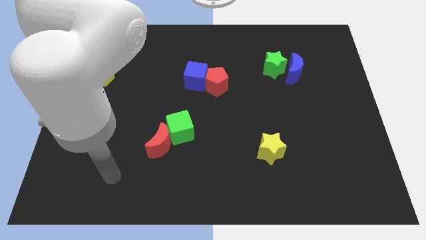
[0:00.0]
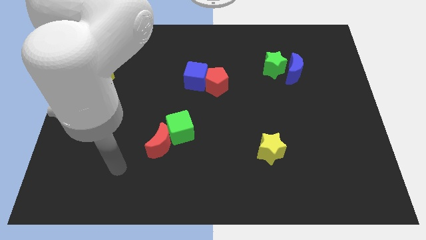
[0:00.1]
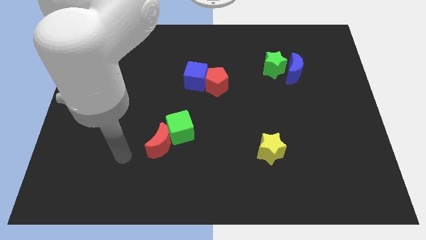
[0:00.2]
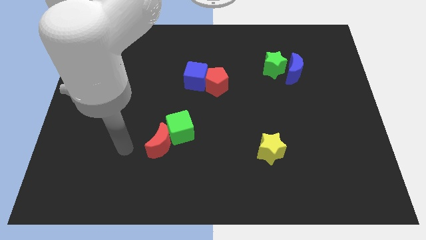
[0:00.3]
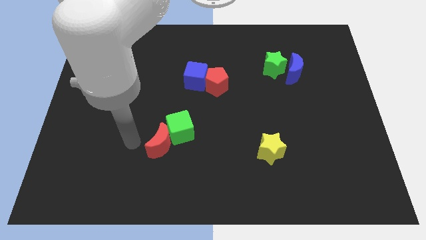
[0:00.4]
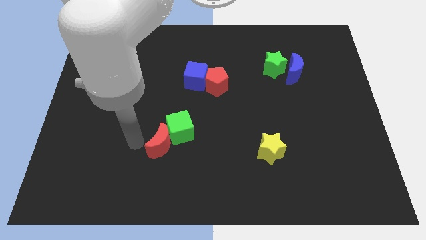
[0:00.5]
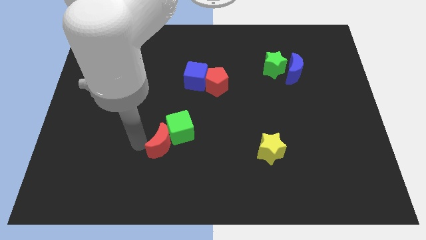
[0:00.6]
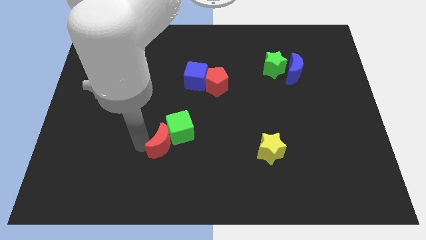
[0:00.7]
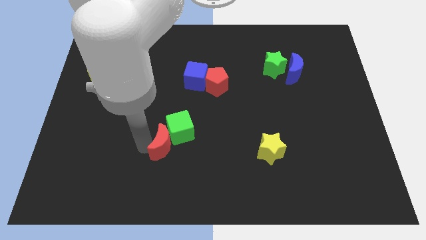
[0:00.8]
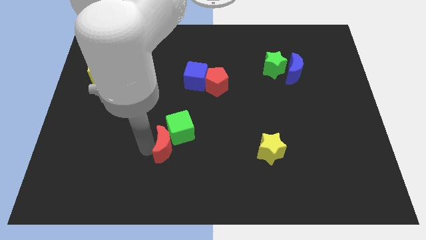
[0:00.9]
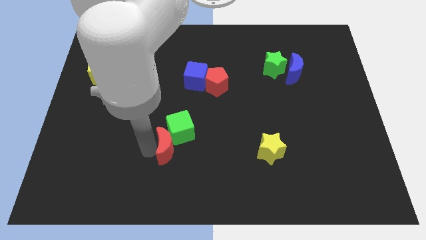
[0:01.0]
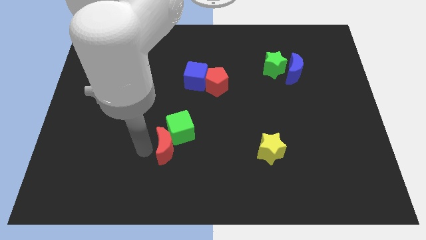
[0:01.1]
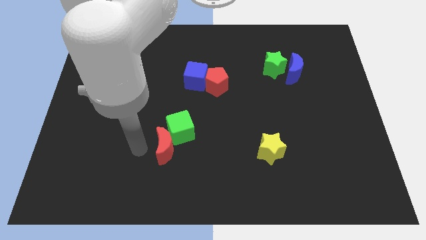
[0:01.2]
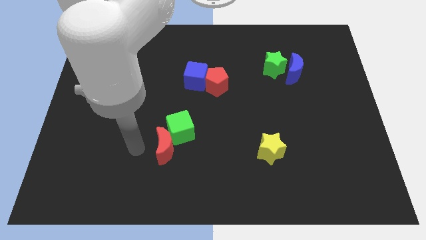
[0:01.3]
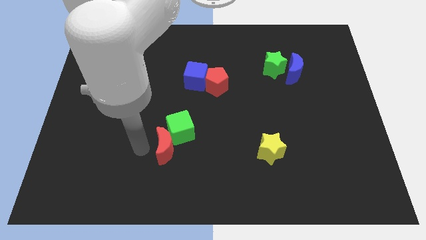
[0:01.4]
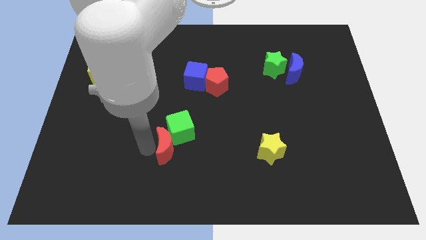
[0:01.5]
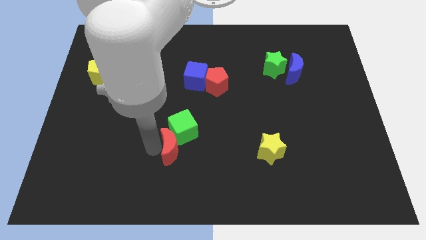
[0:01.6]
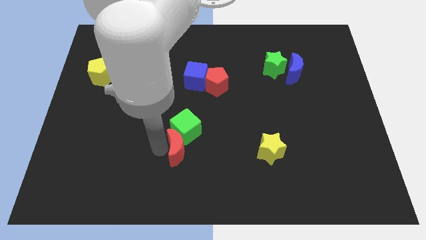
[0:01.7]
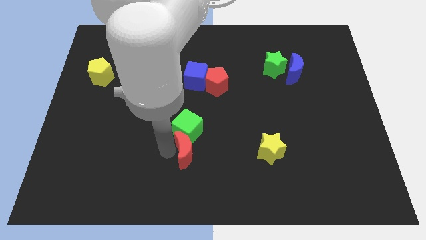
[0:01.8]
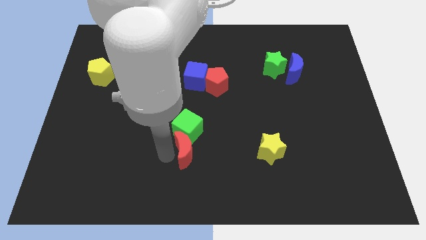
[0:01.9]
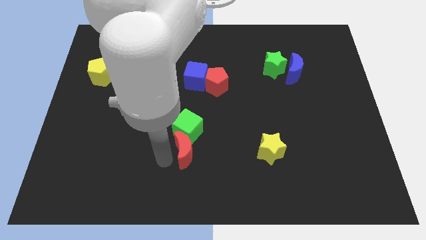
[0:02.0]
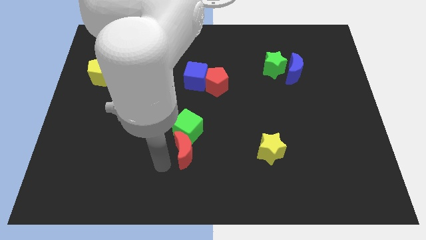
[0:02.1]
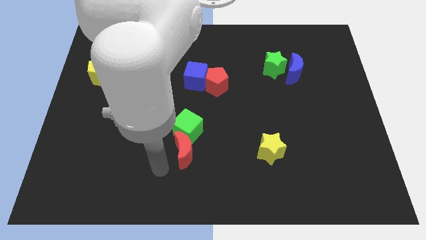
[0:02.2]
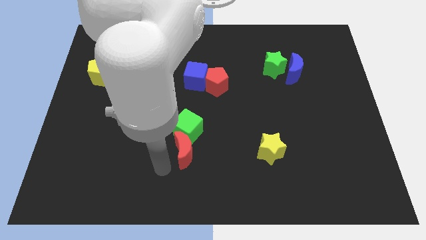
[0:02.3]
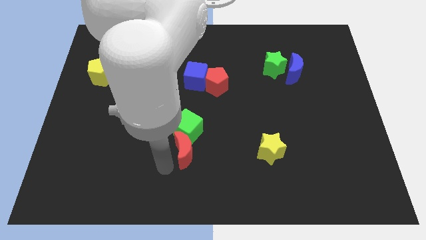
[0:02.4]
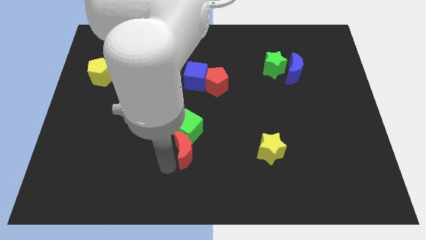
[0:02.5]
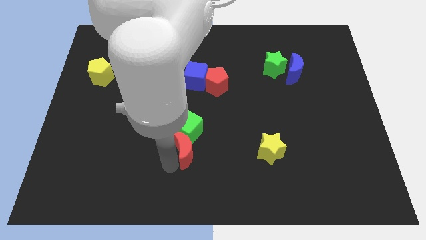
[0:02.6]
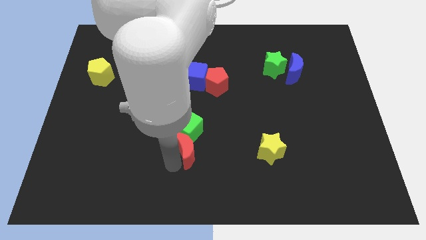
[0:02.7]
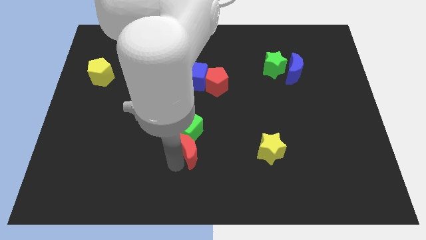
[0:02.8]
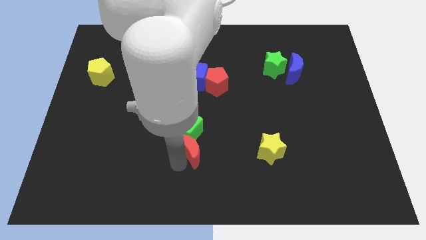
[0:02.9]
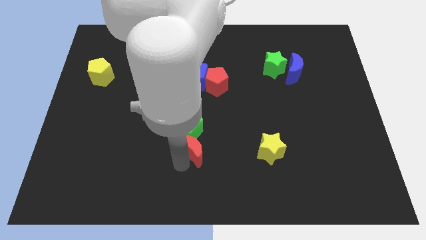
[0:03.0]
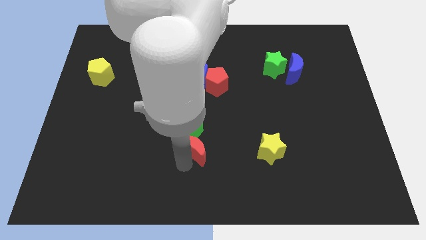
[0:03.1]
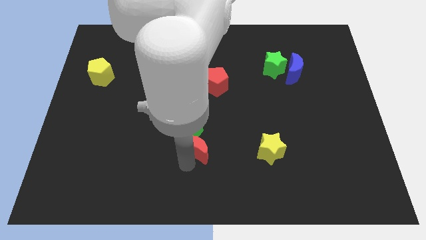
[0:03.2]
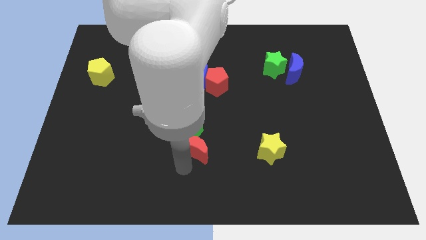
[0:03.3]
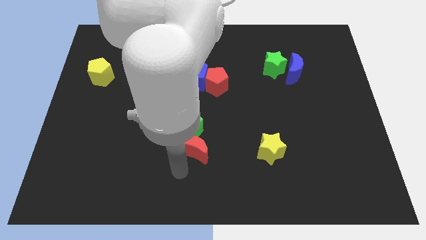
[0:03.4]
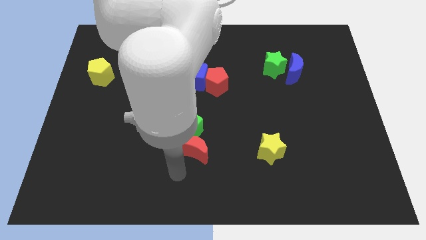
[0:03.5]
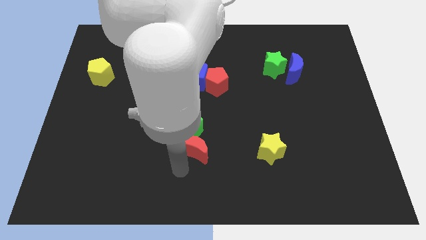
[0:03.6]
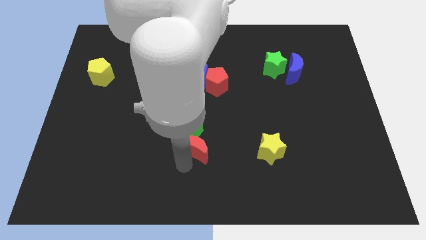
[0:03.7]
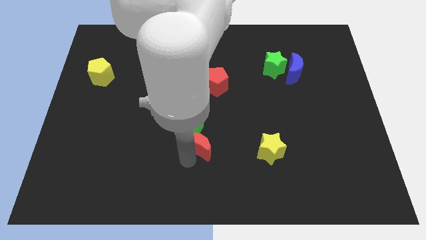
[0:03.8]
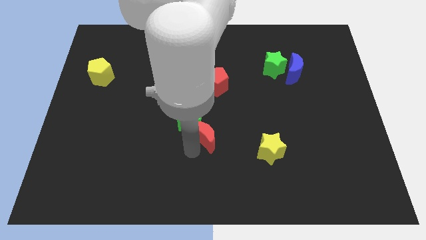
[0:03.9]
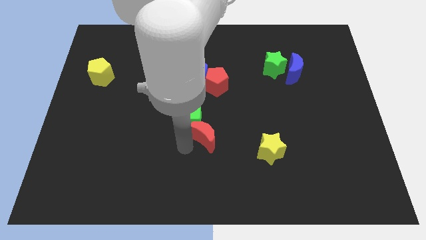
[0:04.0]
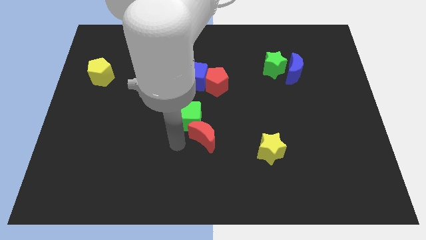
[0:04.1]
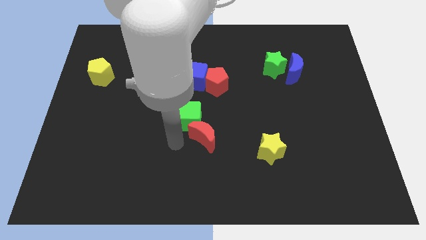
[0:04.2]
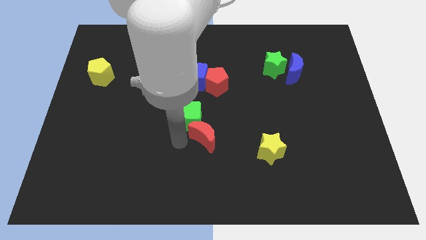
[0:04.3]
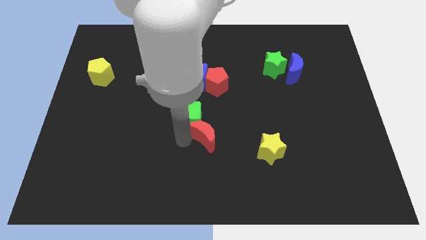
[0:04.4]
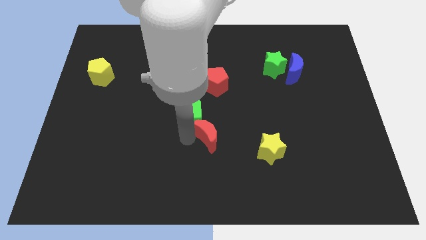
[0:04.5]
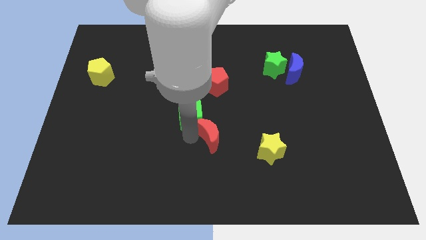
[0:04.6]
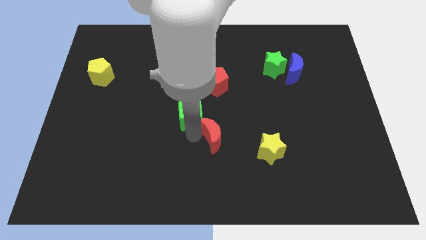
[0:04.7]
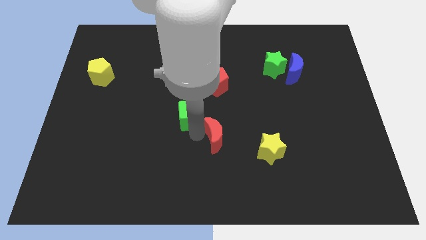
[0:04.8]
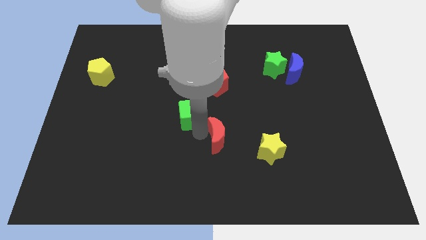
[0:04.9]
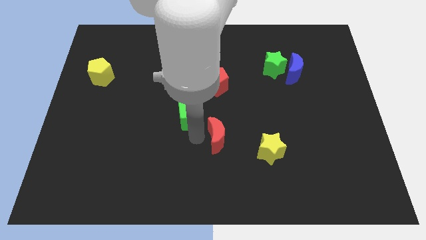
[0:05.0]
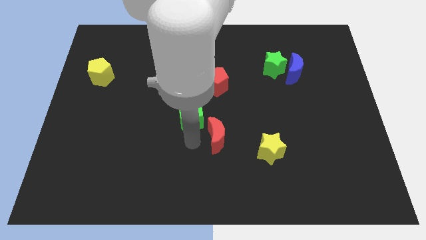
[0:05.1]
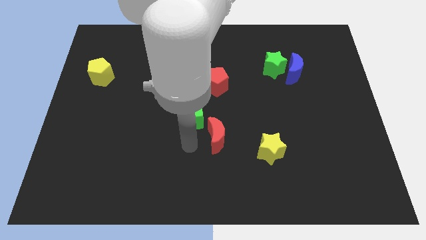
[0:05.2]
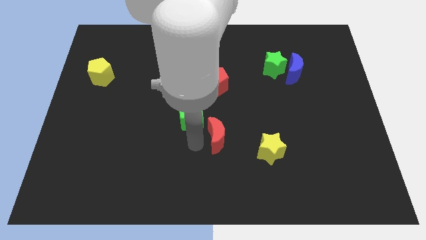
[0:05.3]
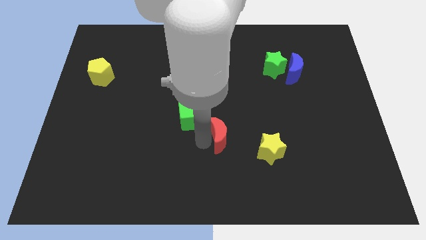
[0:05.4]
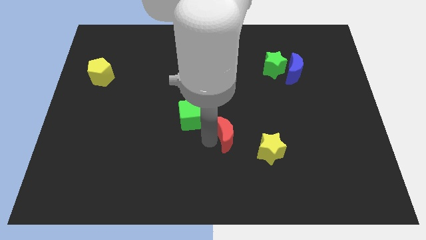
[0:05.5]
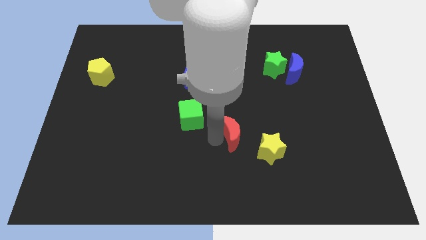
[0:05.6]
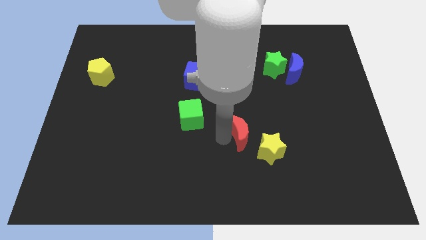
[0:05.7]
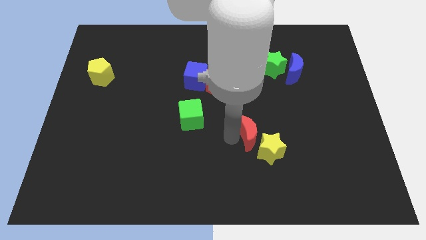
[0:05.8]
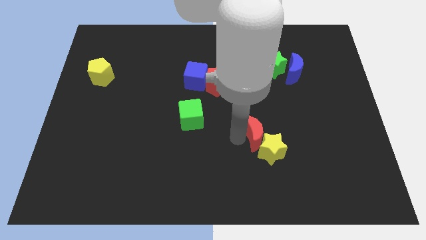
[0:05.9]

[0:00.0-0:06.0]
push the red moon right

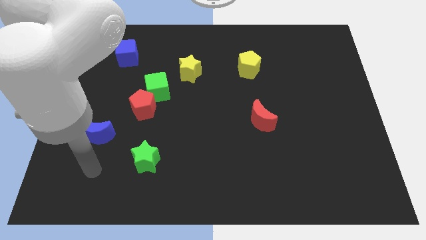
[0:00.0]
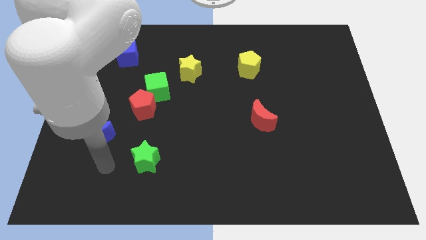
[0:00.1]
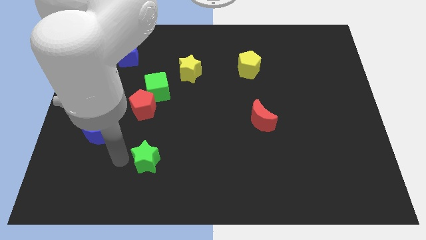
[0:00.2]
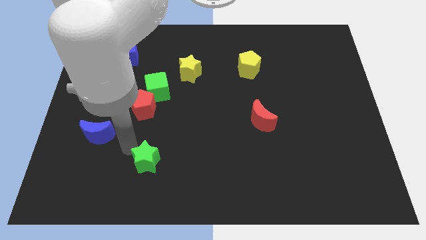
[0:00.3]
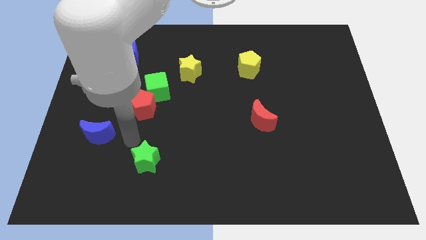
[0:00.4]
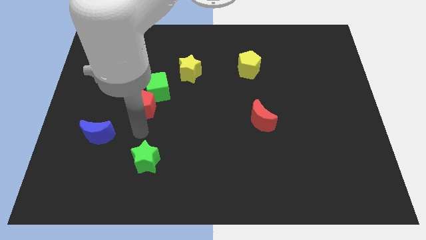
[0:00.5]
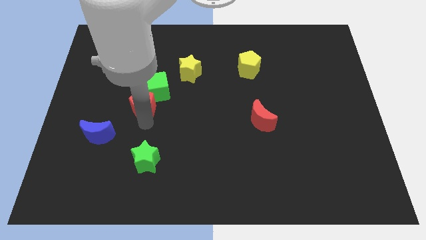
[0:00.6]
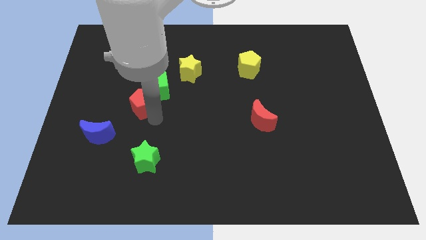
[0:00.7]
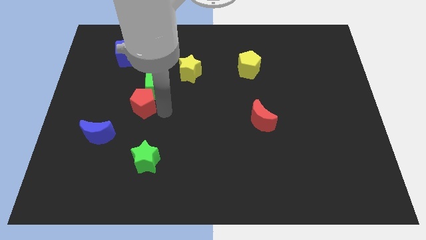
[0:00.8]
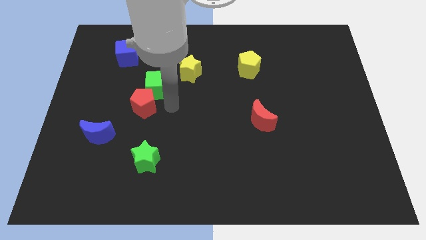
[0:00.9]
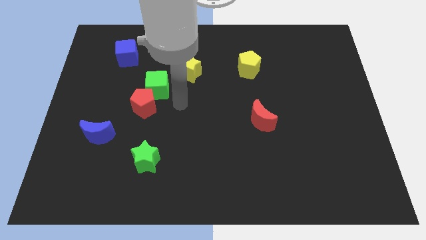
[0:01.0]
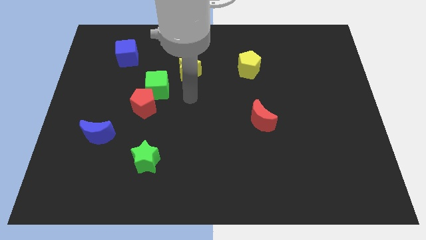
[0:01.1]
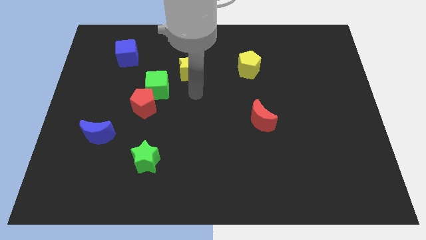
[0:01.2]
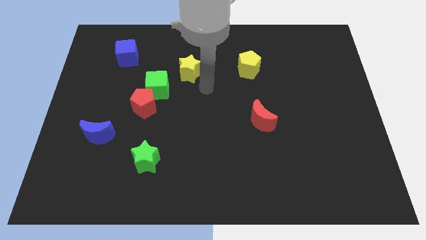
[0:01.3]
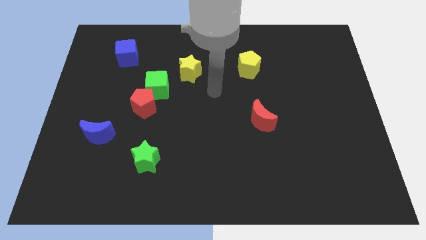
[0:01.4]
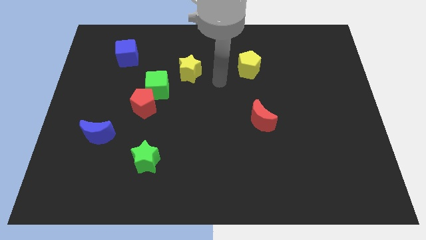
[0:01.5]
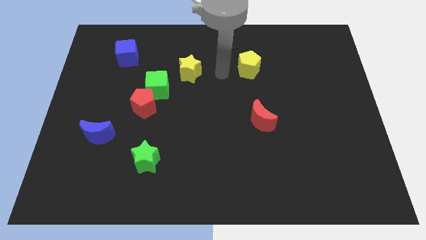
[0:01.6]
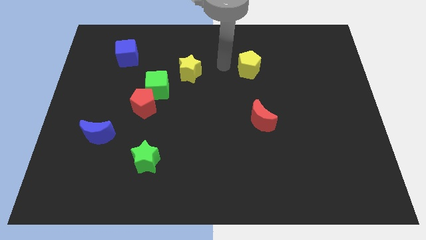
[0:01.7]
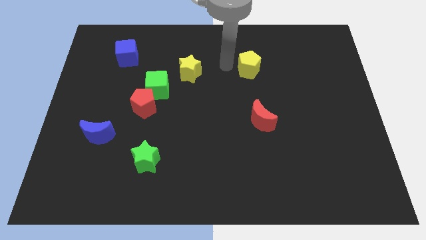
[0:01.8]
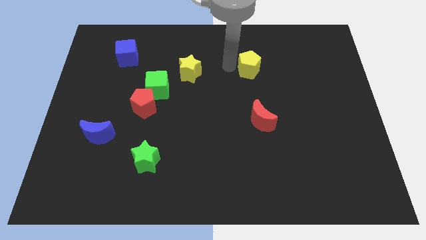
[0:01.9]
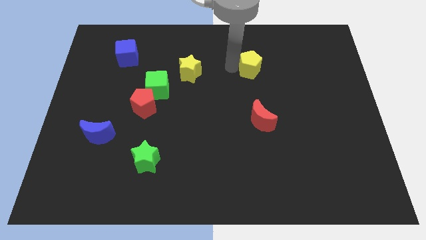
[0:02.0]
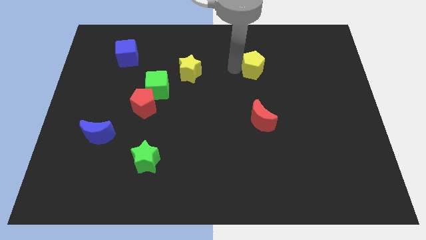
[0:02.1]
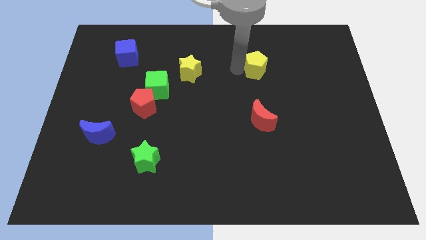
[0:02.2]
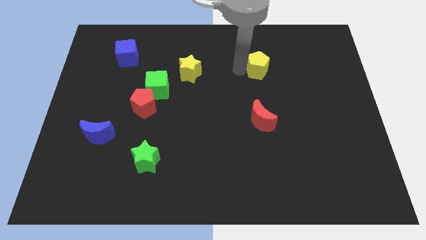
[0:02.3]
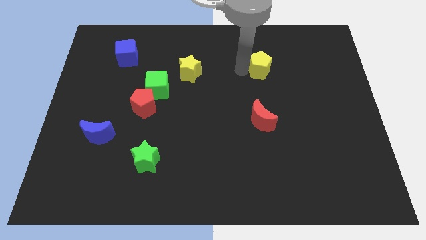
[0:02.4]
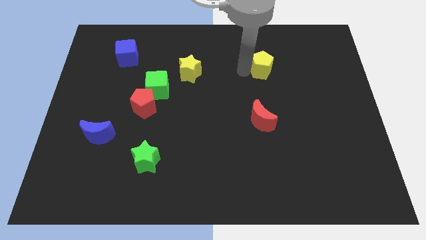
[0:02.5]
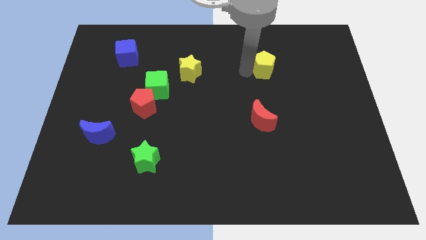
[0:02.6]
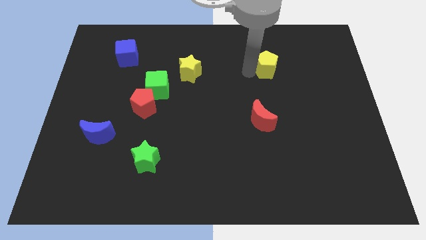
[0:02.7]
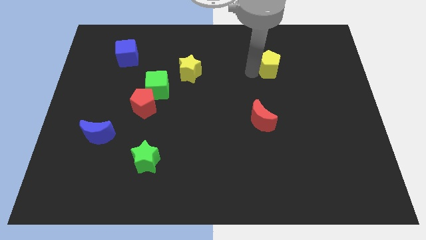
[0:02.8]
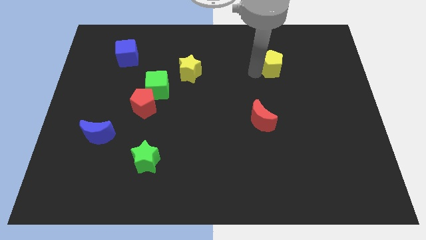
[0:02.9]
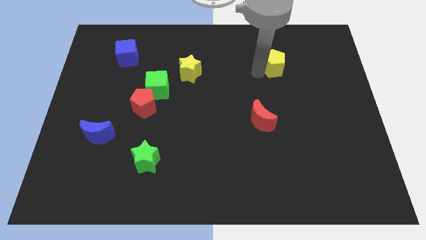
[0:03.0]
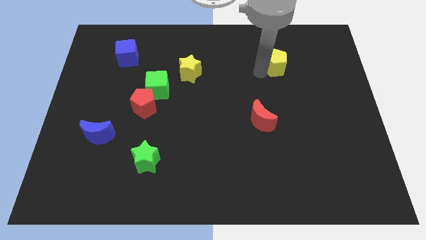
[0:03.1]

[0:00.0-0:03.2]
push the yellow pentagon a little to the right
